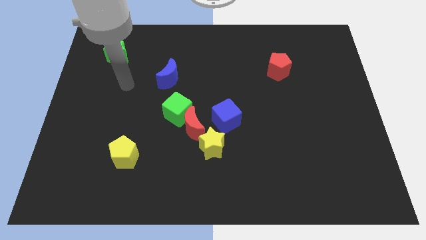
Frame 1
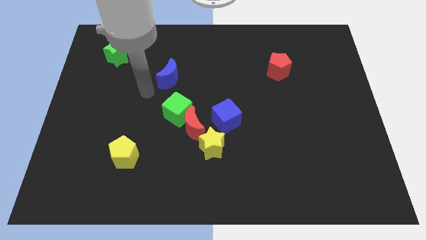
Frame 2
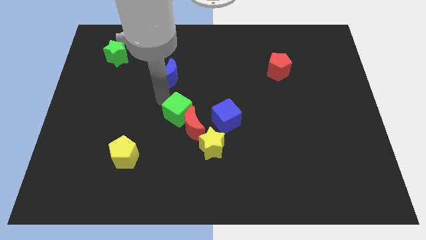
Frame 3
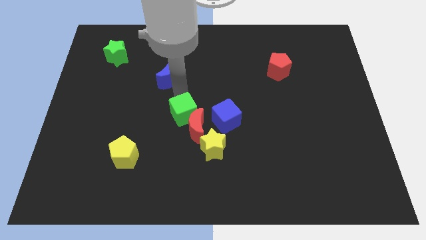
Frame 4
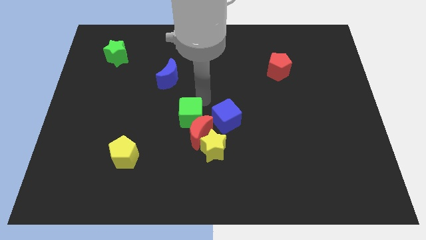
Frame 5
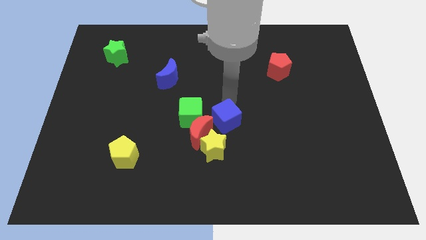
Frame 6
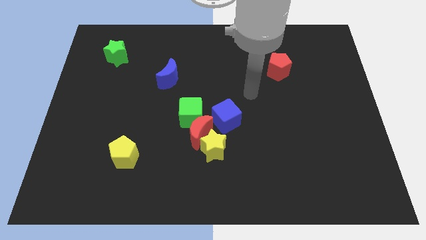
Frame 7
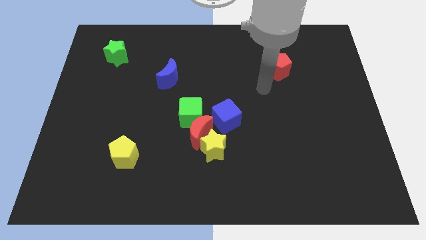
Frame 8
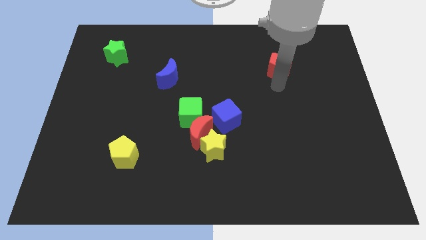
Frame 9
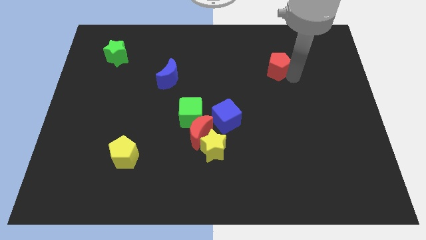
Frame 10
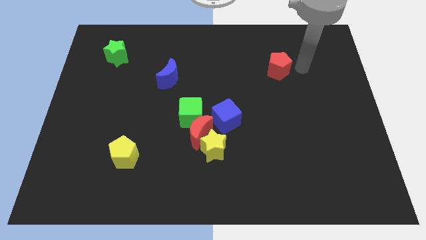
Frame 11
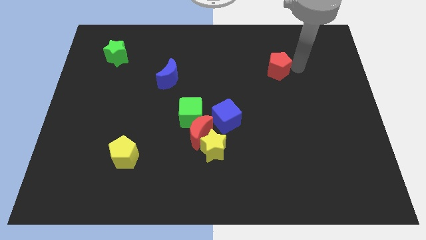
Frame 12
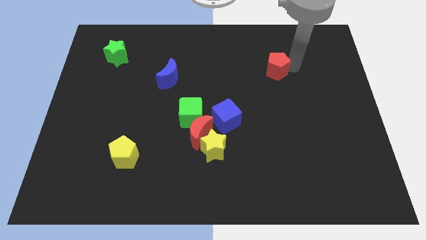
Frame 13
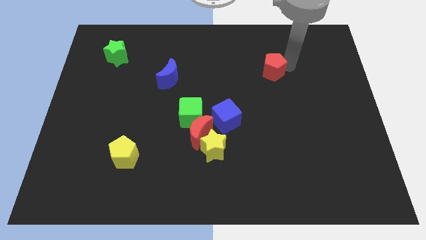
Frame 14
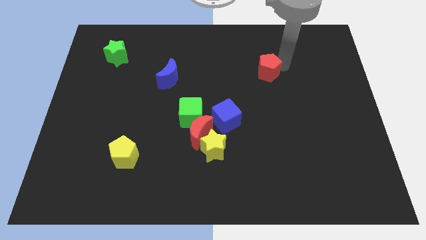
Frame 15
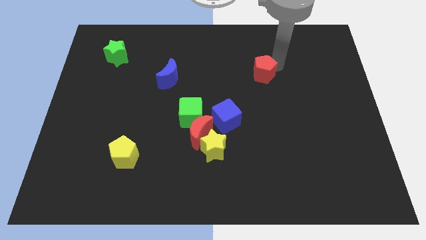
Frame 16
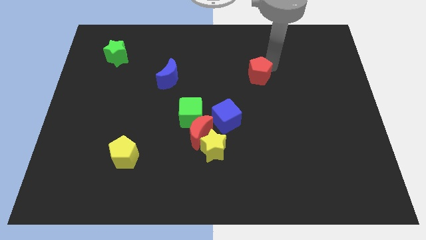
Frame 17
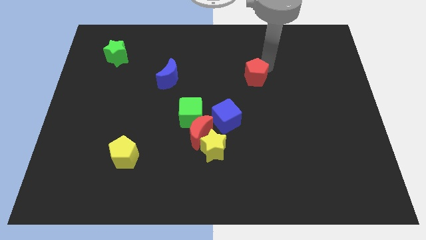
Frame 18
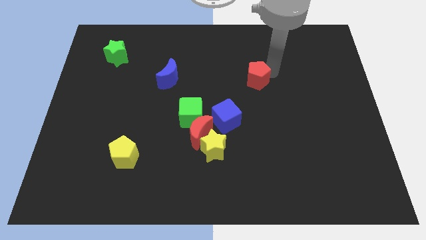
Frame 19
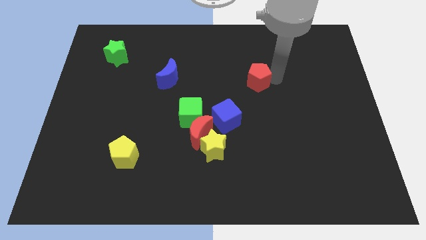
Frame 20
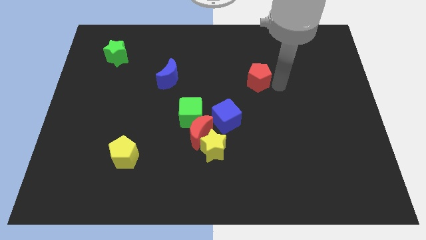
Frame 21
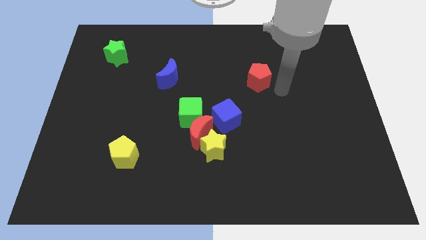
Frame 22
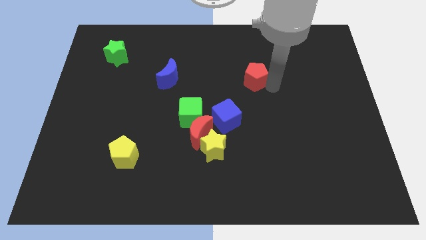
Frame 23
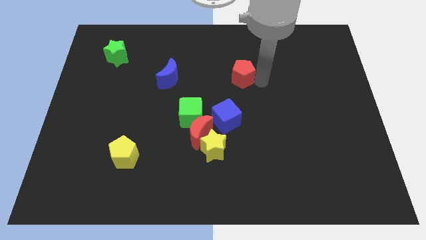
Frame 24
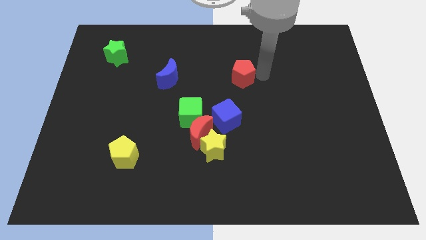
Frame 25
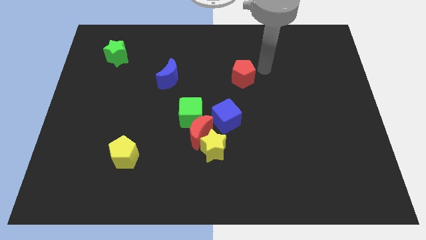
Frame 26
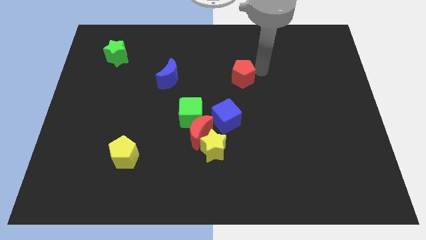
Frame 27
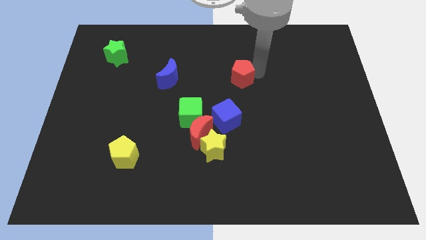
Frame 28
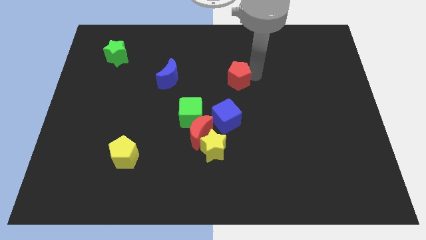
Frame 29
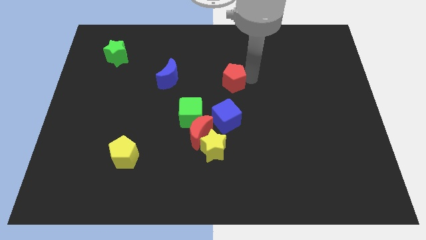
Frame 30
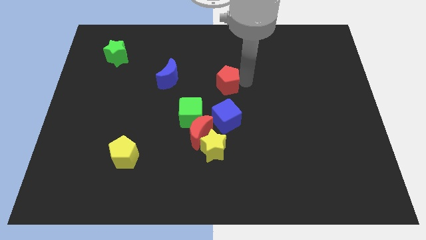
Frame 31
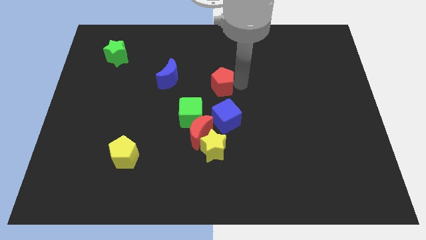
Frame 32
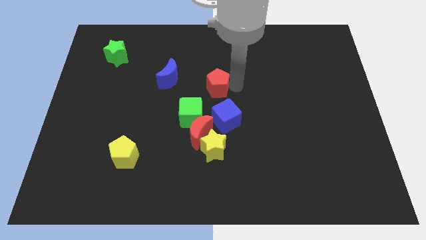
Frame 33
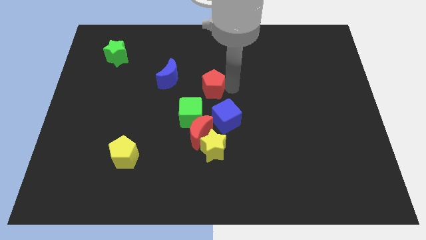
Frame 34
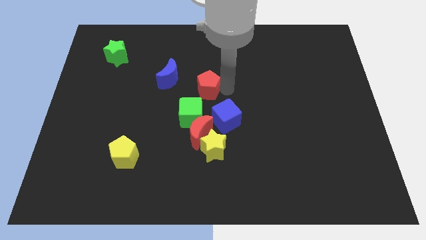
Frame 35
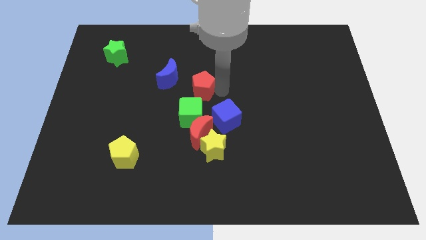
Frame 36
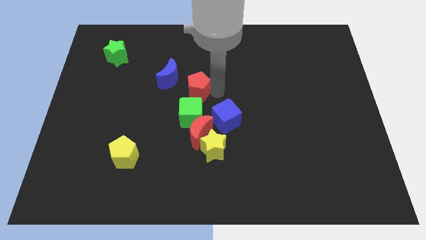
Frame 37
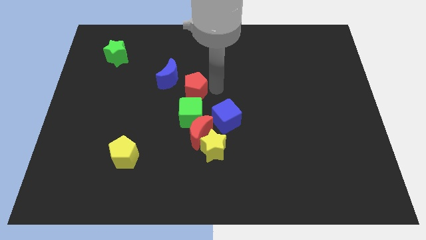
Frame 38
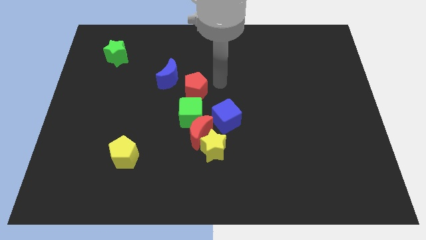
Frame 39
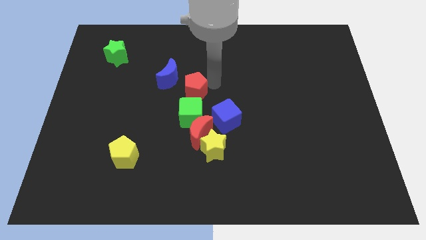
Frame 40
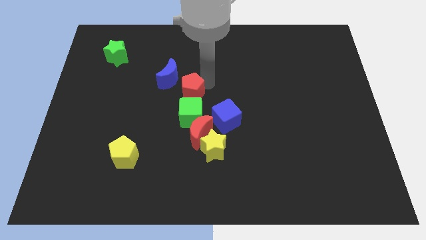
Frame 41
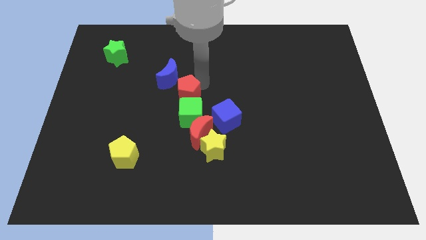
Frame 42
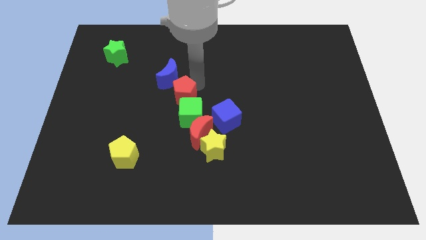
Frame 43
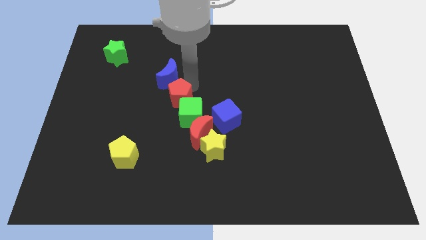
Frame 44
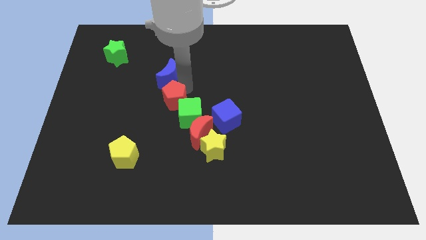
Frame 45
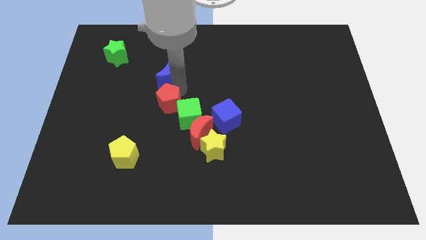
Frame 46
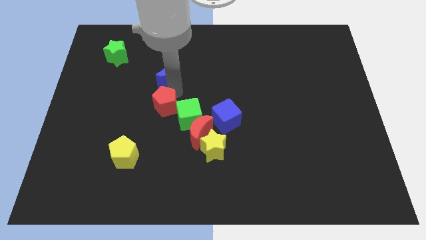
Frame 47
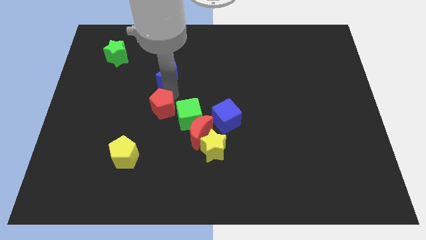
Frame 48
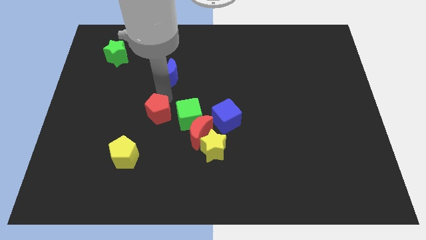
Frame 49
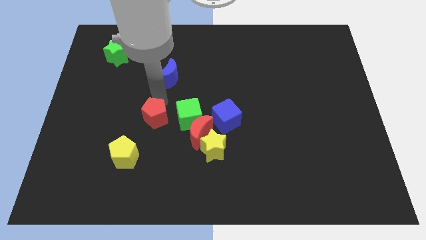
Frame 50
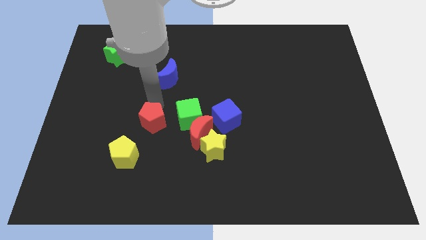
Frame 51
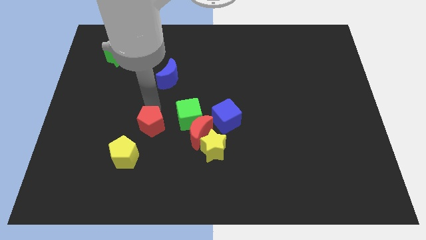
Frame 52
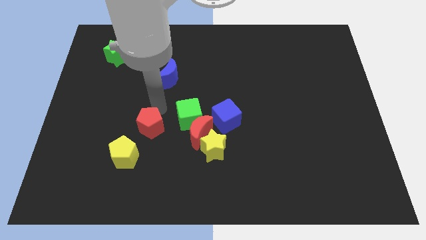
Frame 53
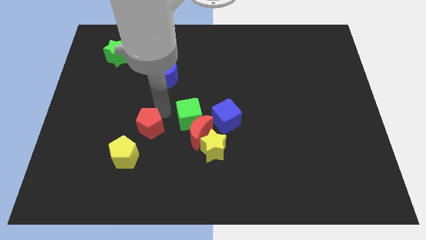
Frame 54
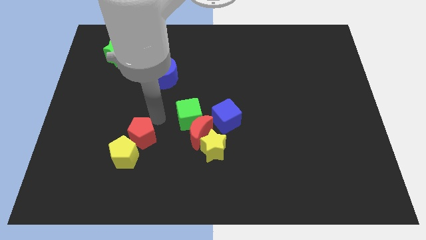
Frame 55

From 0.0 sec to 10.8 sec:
move the red pentagon close to the yellow pentagon

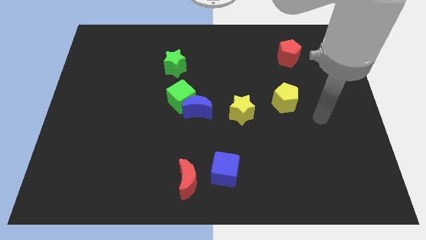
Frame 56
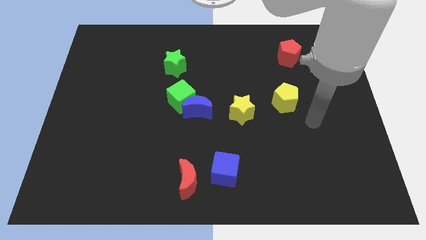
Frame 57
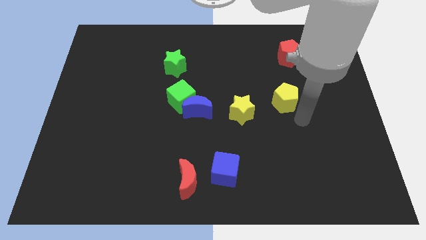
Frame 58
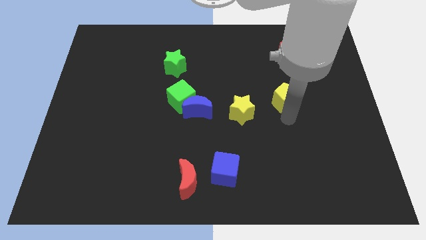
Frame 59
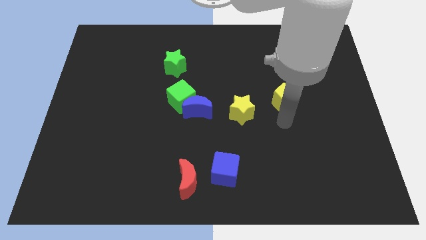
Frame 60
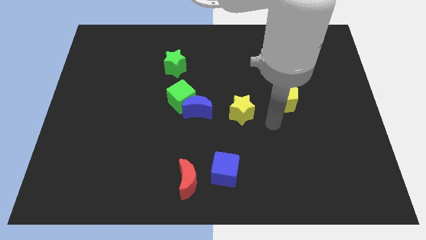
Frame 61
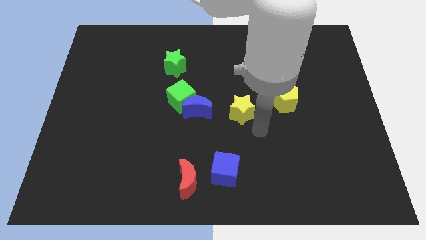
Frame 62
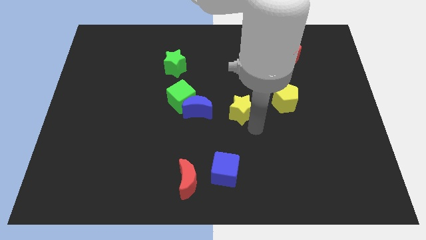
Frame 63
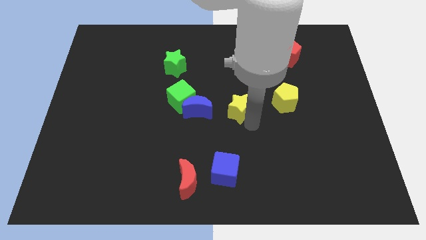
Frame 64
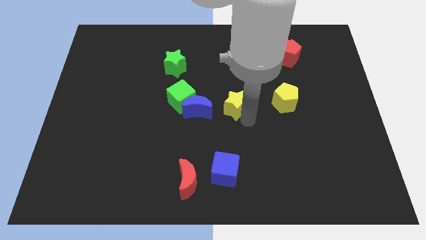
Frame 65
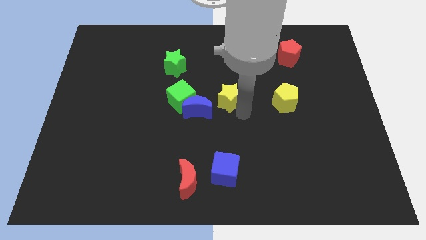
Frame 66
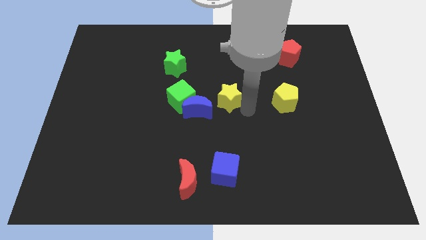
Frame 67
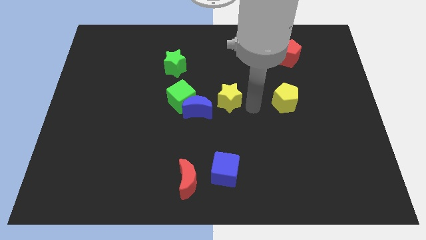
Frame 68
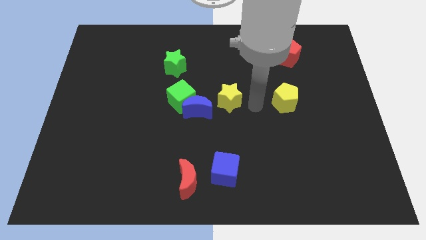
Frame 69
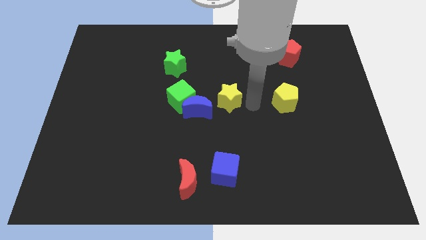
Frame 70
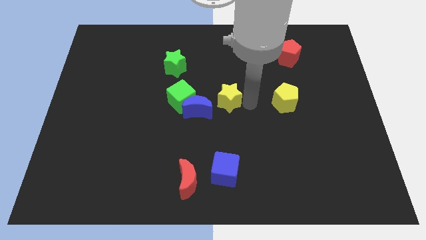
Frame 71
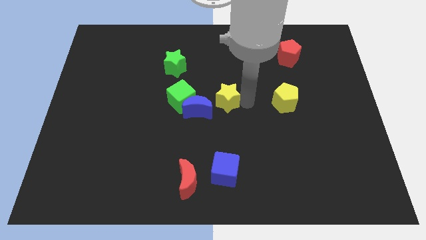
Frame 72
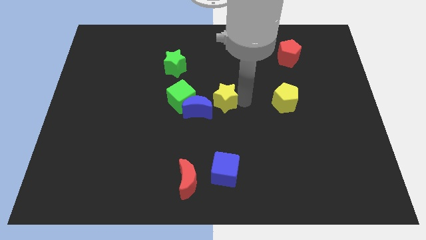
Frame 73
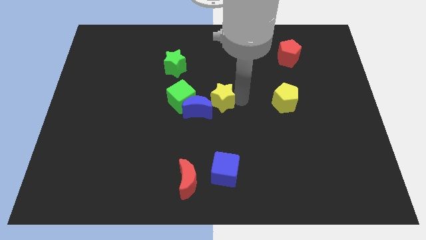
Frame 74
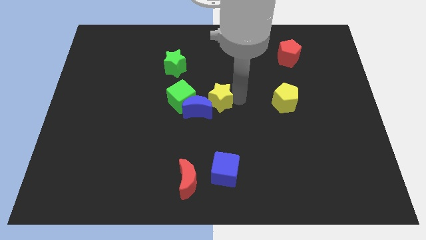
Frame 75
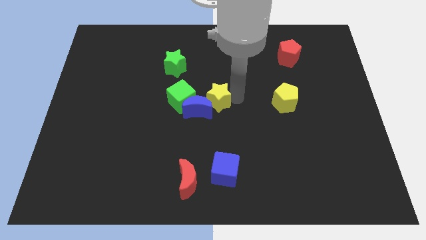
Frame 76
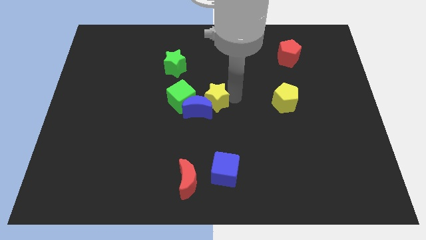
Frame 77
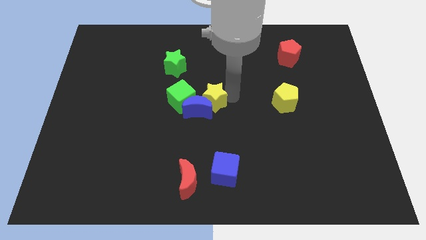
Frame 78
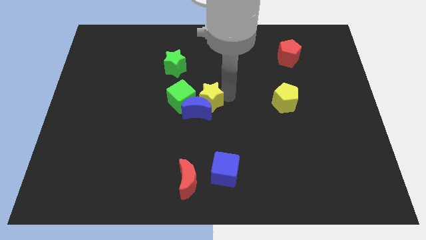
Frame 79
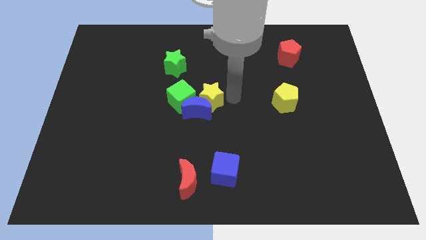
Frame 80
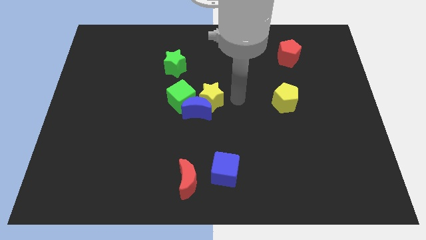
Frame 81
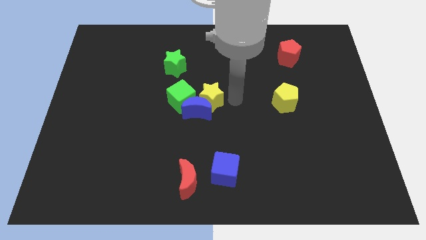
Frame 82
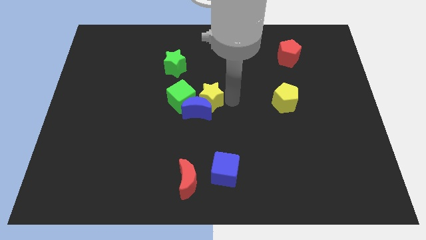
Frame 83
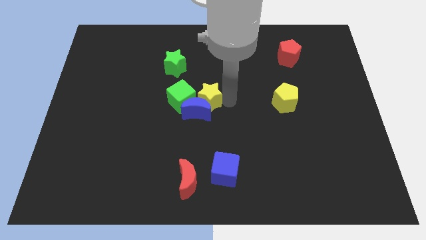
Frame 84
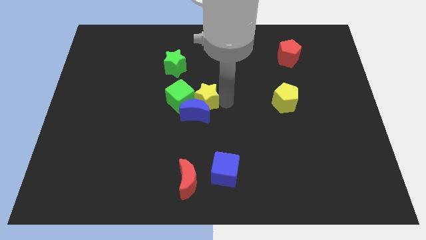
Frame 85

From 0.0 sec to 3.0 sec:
push the yellow star close to the green cube
